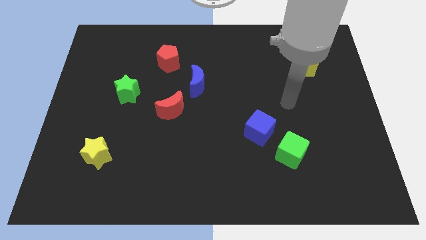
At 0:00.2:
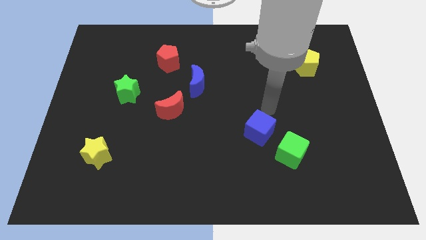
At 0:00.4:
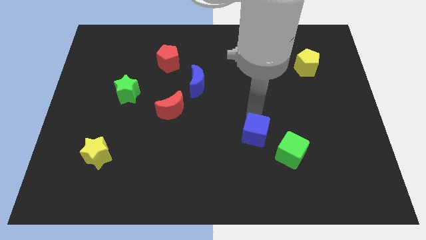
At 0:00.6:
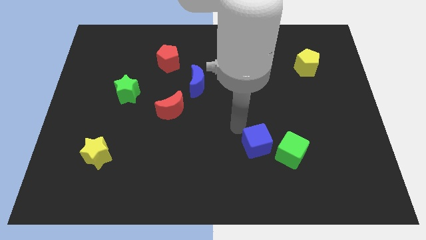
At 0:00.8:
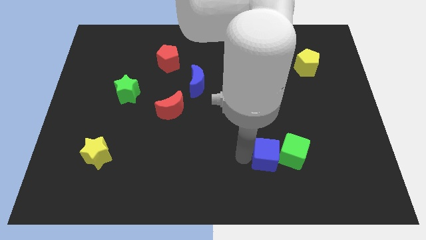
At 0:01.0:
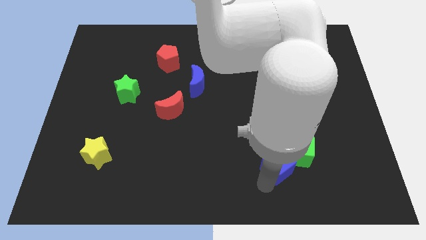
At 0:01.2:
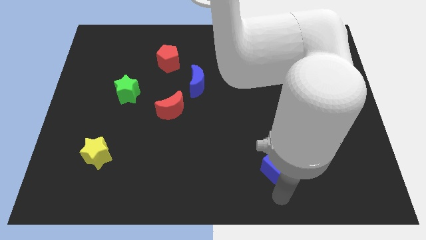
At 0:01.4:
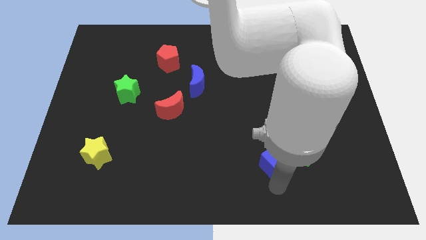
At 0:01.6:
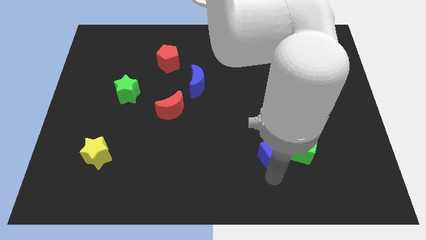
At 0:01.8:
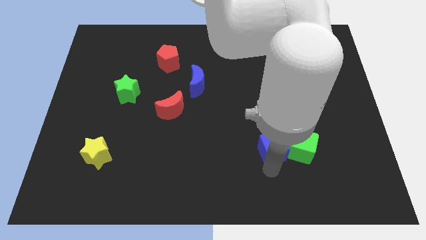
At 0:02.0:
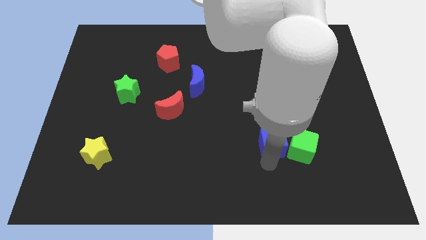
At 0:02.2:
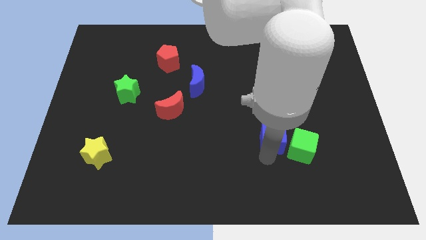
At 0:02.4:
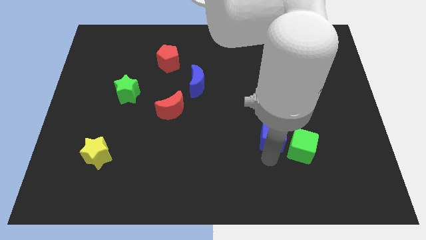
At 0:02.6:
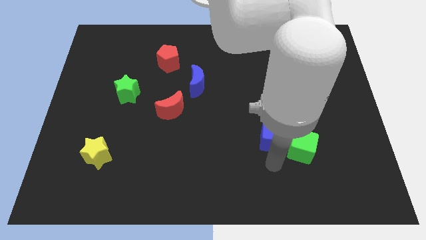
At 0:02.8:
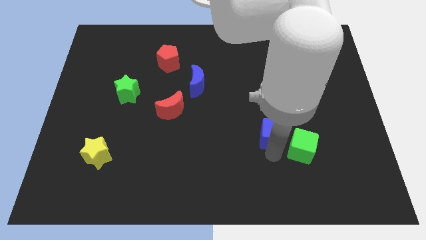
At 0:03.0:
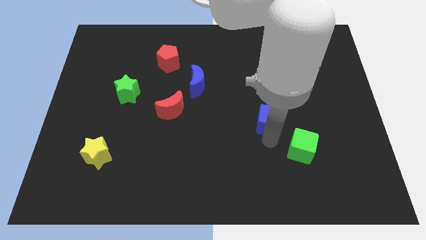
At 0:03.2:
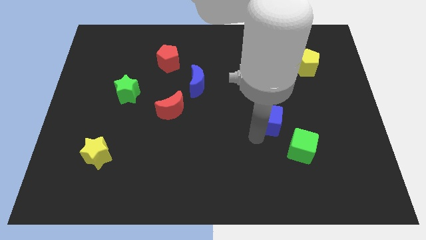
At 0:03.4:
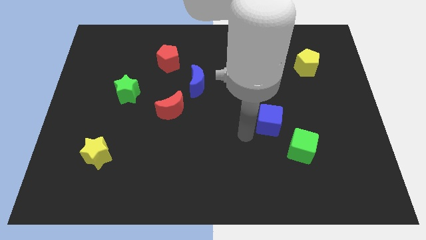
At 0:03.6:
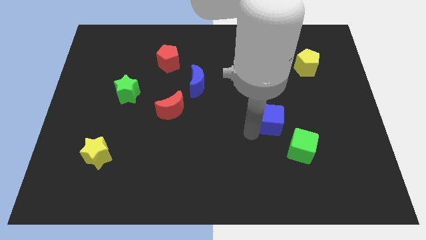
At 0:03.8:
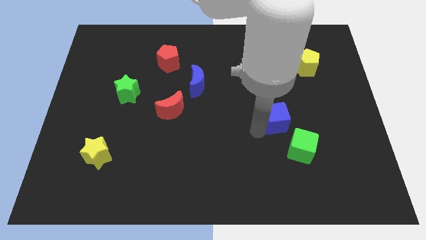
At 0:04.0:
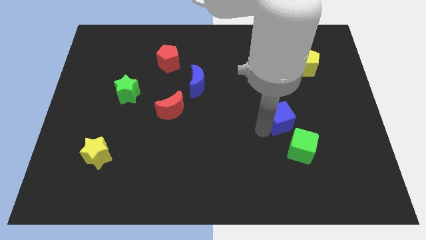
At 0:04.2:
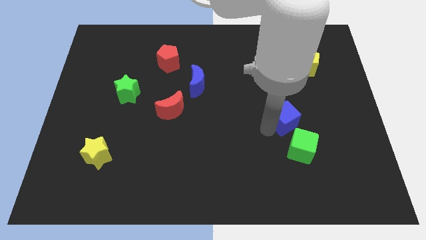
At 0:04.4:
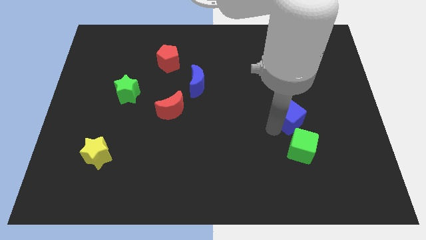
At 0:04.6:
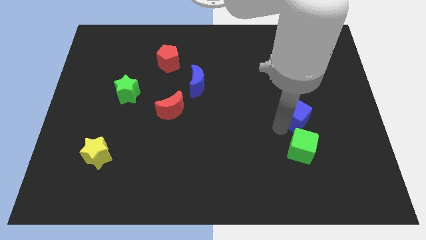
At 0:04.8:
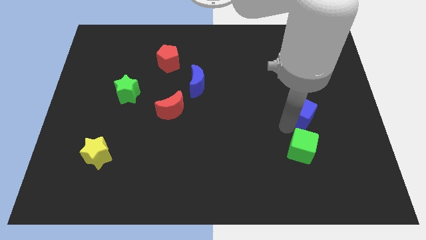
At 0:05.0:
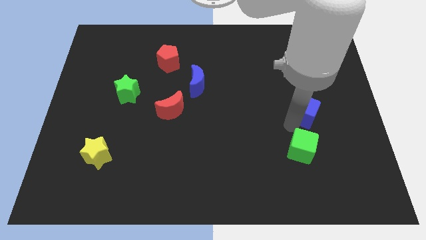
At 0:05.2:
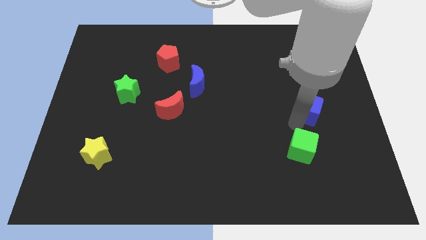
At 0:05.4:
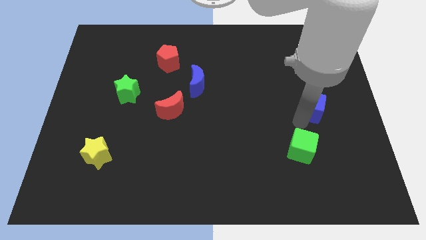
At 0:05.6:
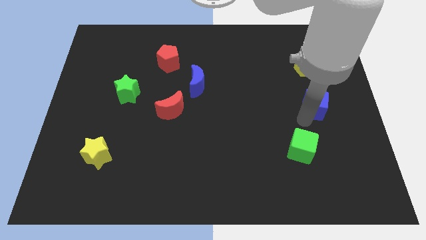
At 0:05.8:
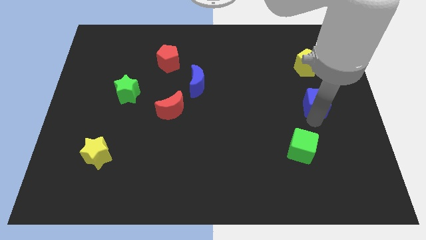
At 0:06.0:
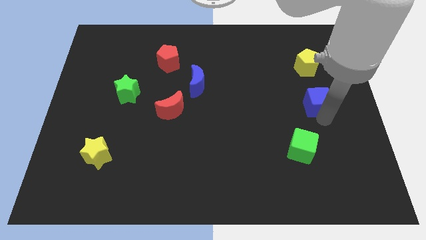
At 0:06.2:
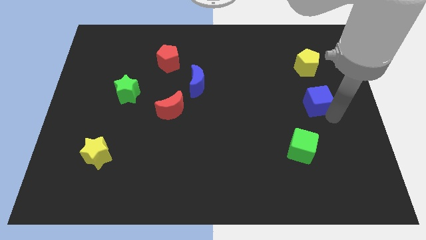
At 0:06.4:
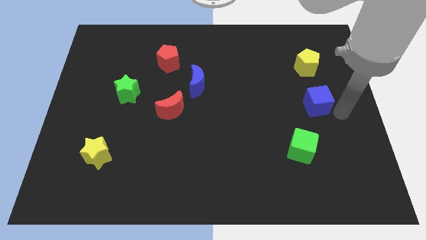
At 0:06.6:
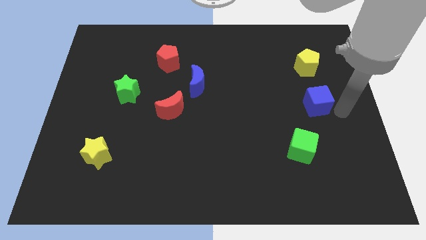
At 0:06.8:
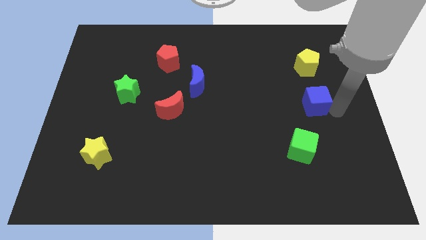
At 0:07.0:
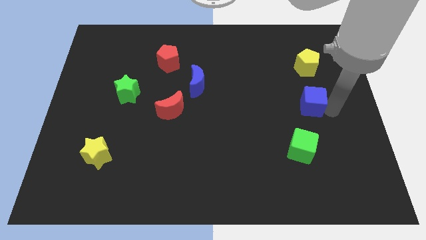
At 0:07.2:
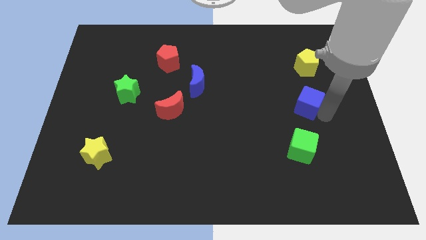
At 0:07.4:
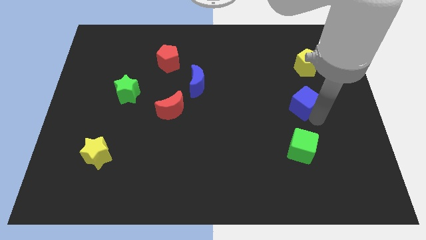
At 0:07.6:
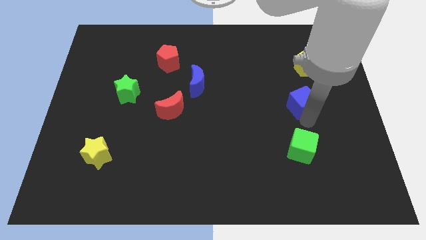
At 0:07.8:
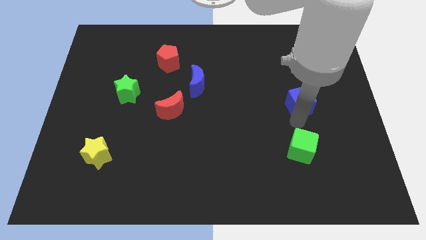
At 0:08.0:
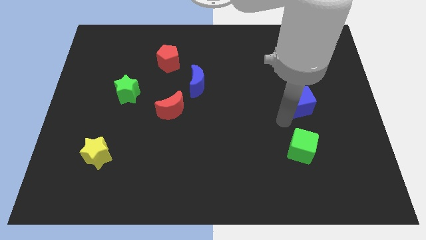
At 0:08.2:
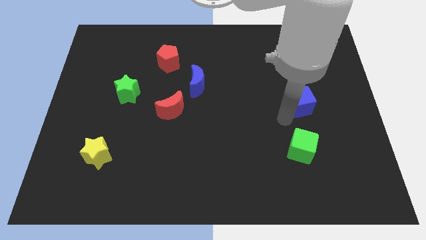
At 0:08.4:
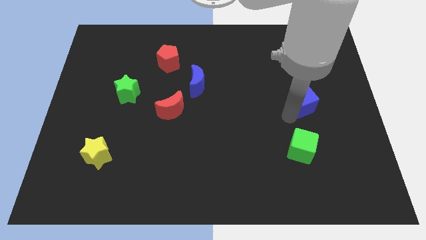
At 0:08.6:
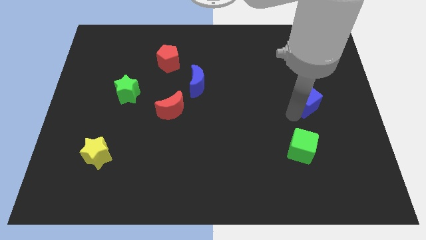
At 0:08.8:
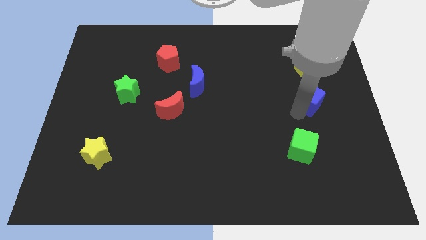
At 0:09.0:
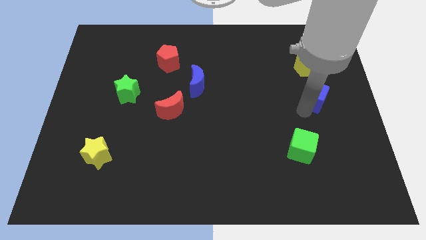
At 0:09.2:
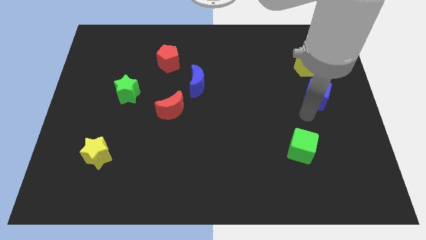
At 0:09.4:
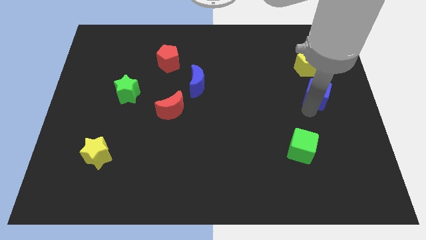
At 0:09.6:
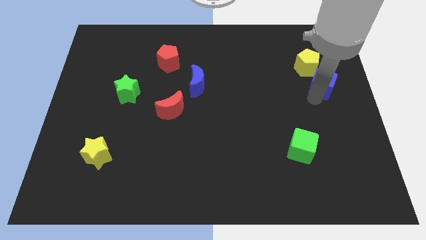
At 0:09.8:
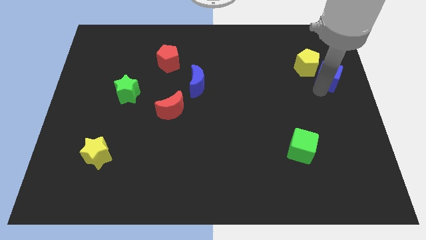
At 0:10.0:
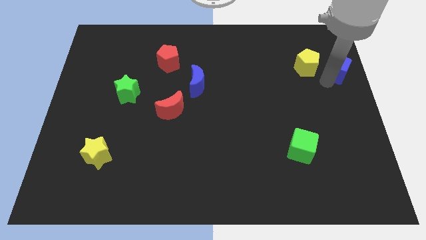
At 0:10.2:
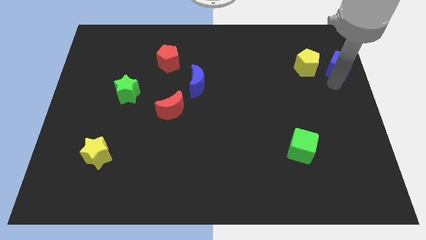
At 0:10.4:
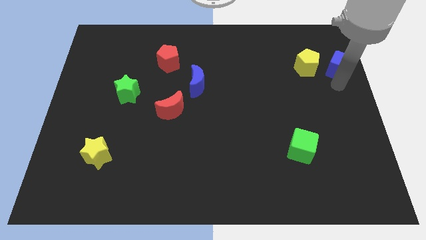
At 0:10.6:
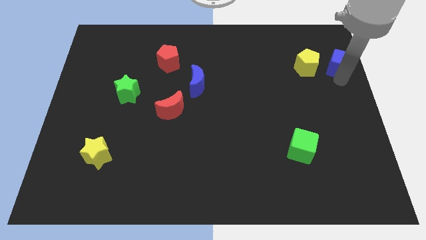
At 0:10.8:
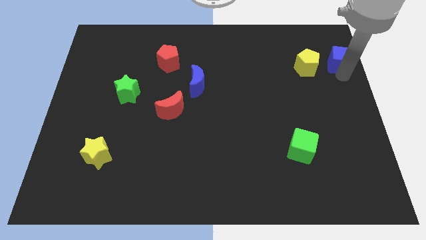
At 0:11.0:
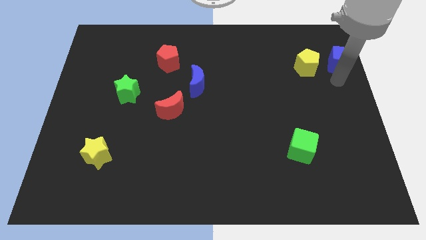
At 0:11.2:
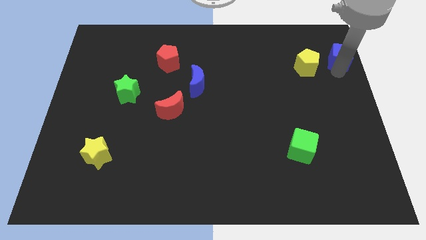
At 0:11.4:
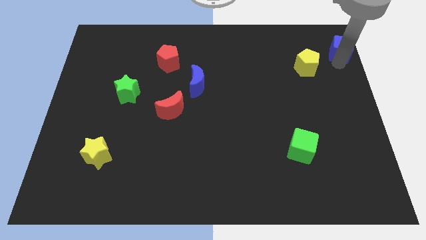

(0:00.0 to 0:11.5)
slide the blue cube to the top right corner
